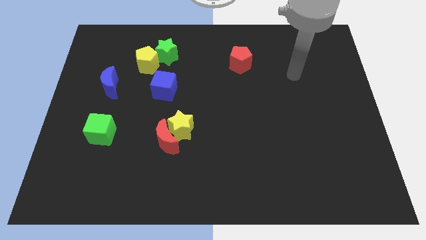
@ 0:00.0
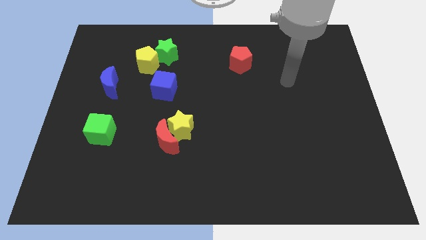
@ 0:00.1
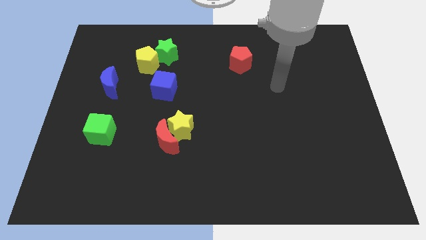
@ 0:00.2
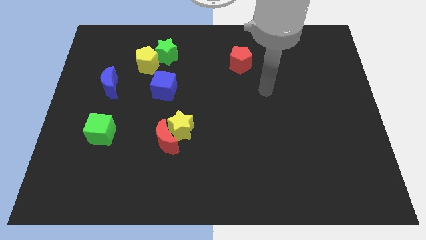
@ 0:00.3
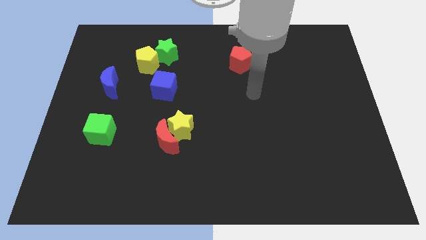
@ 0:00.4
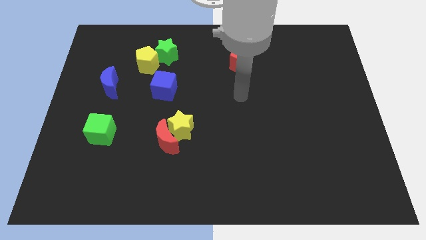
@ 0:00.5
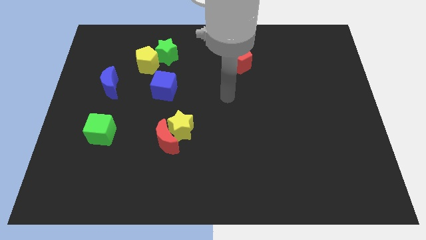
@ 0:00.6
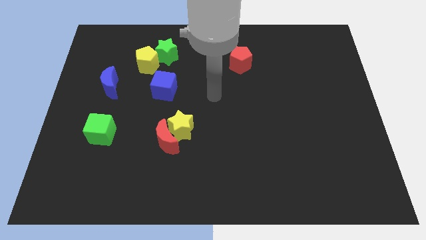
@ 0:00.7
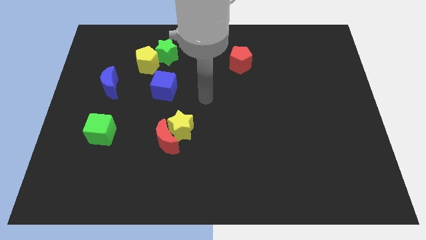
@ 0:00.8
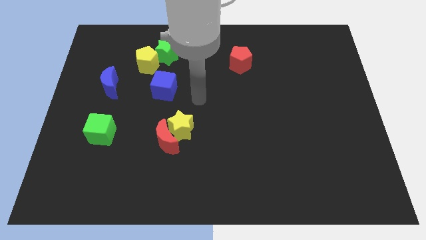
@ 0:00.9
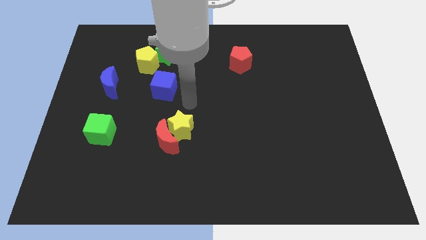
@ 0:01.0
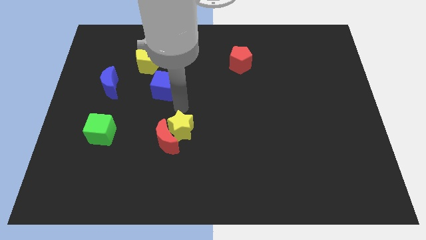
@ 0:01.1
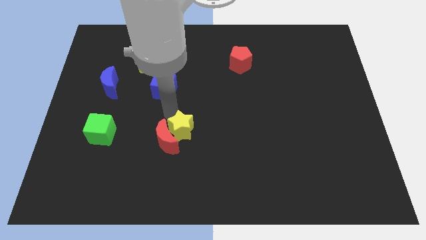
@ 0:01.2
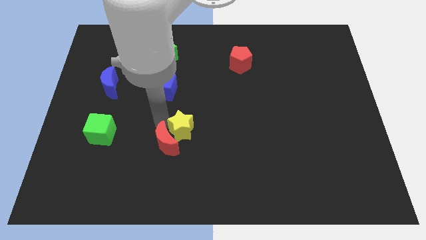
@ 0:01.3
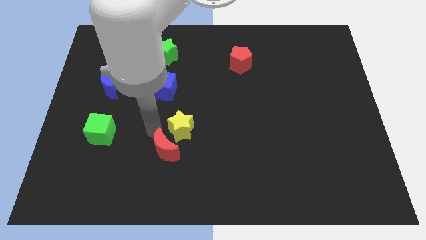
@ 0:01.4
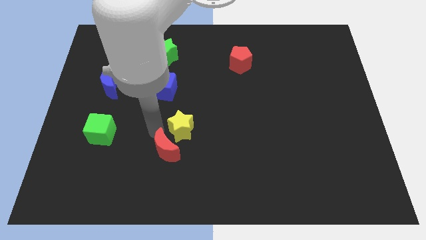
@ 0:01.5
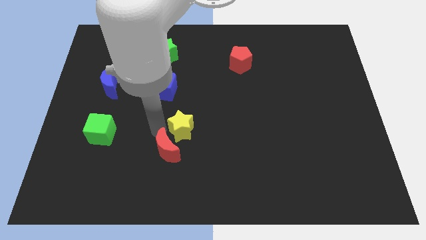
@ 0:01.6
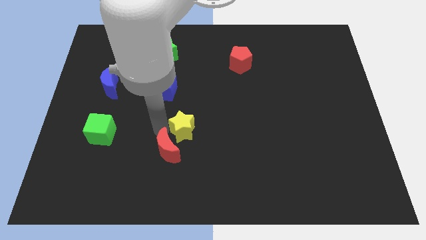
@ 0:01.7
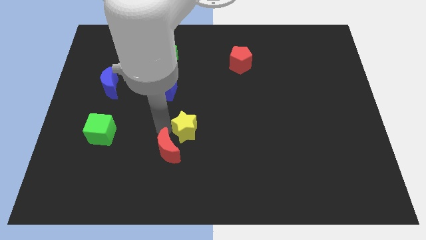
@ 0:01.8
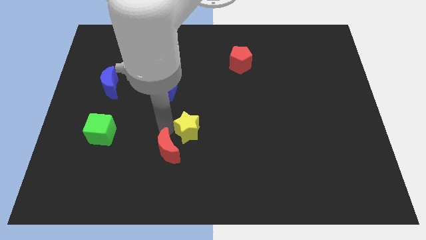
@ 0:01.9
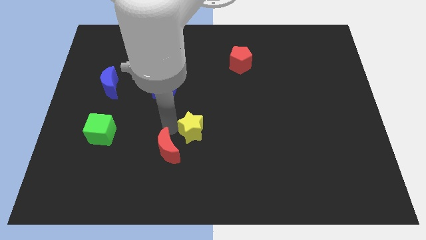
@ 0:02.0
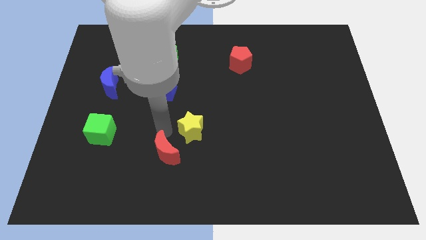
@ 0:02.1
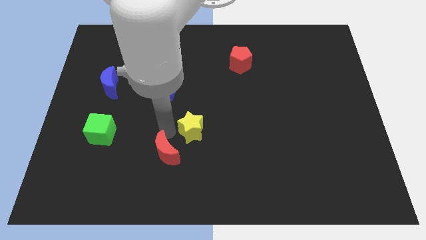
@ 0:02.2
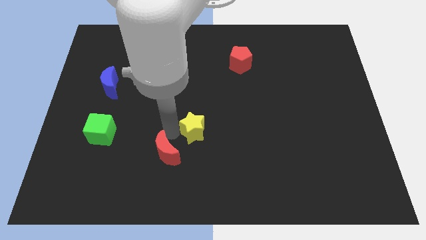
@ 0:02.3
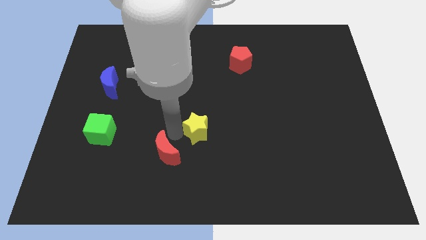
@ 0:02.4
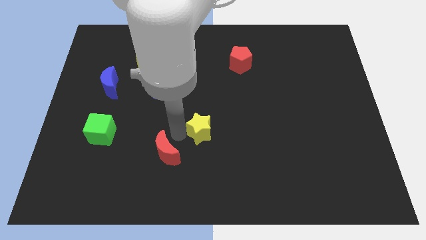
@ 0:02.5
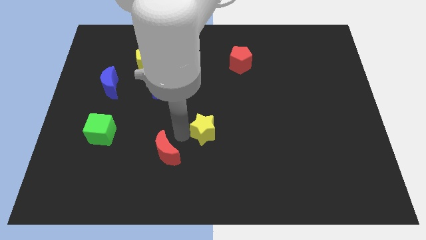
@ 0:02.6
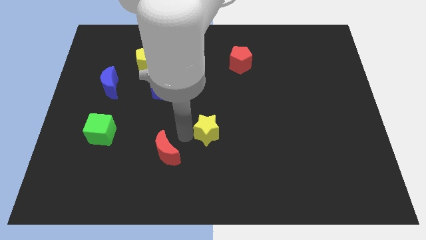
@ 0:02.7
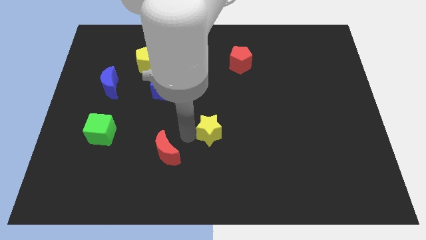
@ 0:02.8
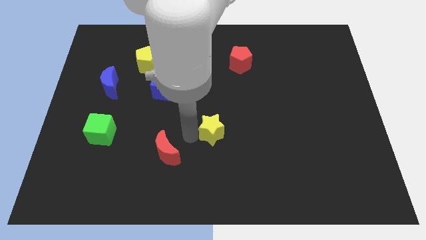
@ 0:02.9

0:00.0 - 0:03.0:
move the yellow star to the right a bit

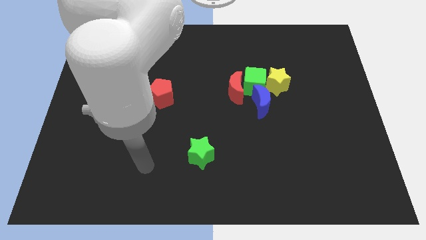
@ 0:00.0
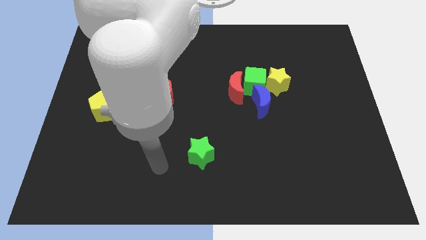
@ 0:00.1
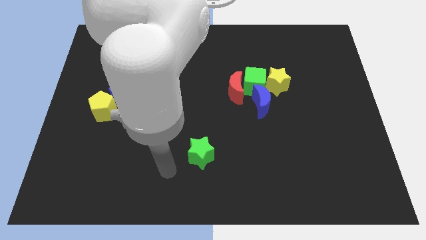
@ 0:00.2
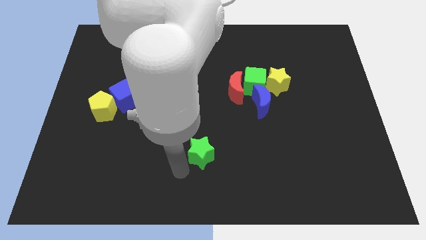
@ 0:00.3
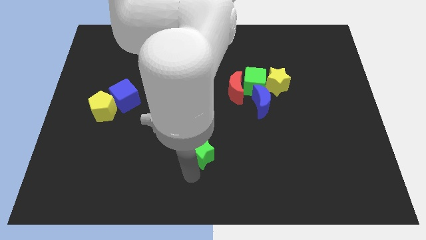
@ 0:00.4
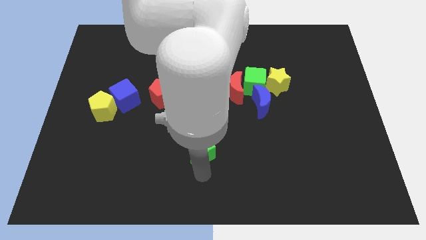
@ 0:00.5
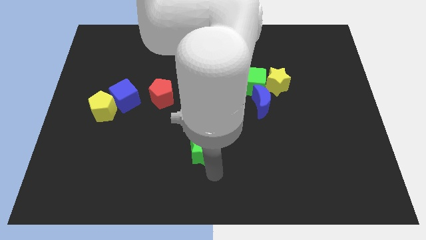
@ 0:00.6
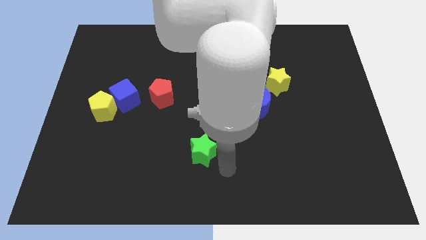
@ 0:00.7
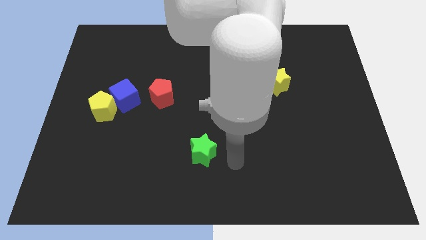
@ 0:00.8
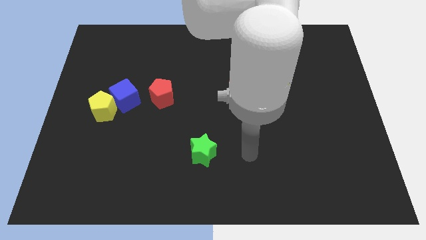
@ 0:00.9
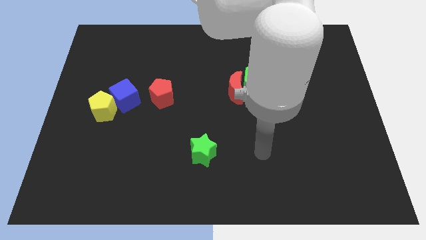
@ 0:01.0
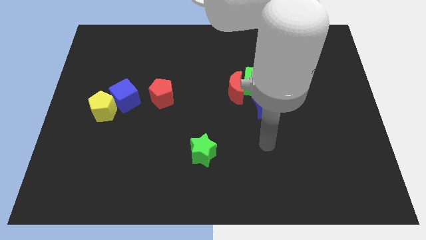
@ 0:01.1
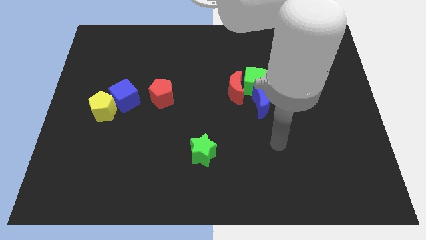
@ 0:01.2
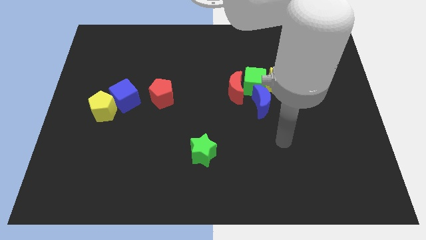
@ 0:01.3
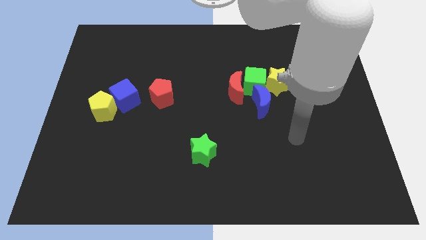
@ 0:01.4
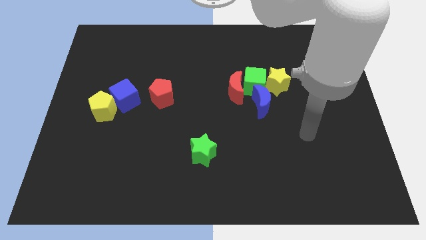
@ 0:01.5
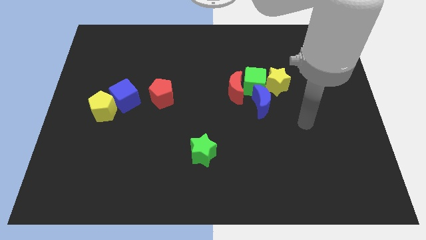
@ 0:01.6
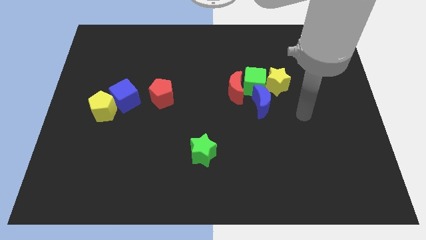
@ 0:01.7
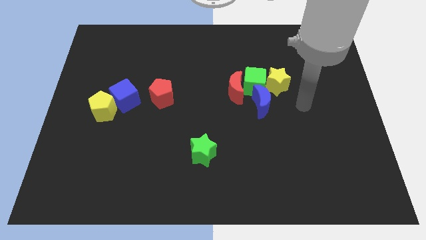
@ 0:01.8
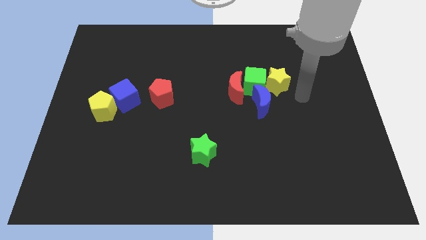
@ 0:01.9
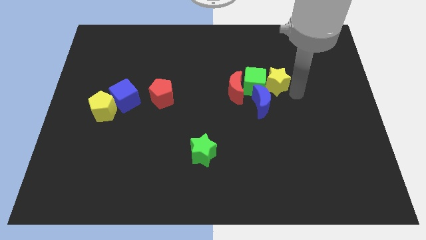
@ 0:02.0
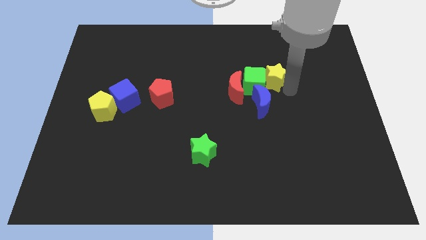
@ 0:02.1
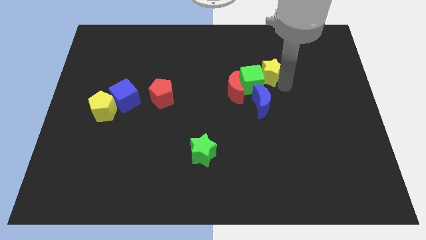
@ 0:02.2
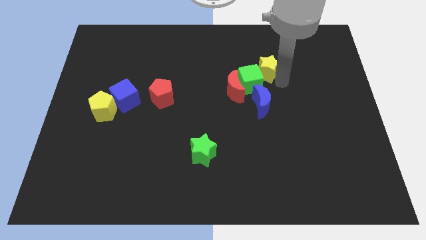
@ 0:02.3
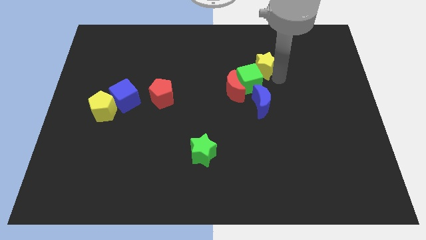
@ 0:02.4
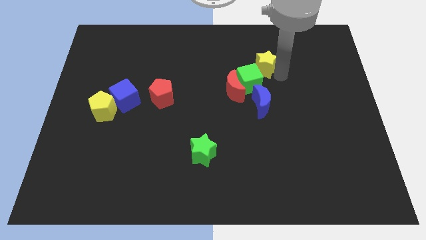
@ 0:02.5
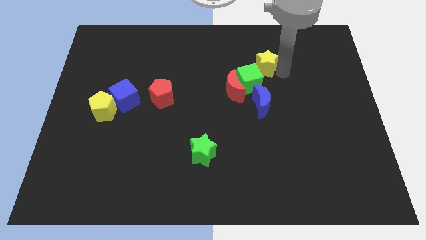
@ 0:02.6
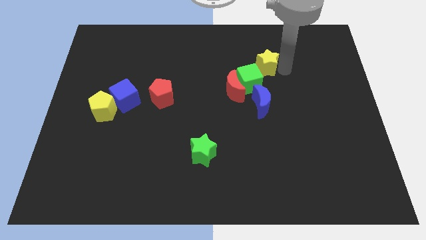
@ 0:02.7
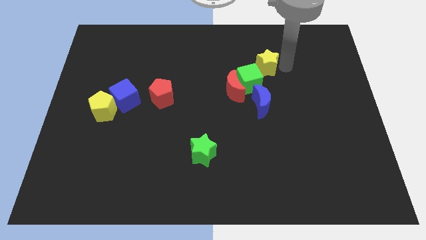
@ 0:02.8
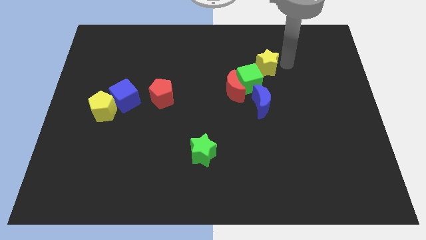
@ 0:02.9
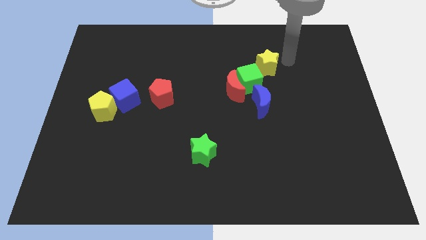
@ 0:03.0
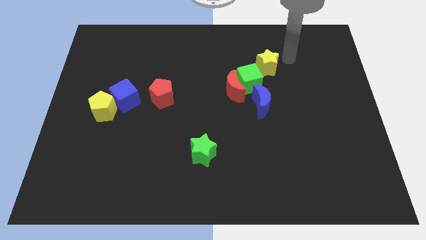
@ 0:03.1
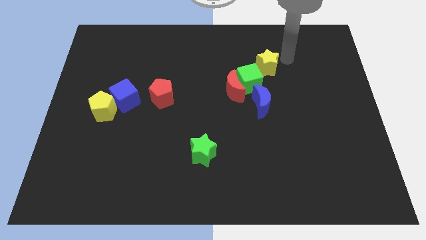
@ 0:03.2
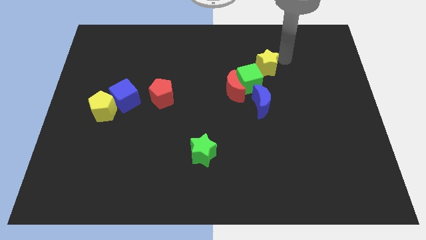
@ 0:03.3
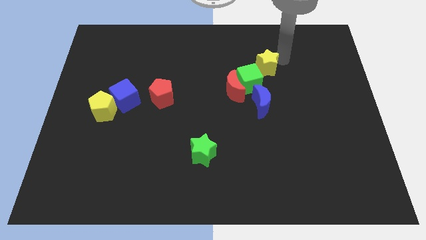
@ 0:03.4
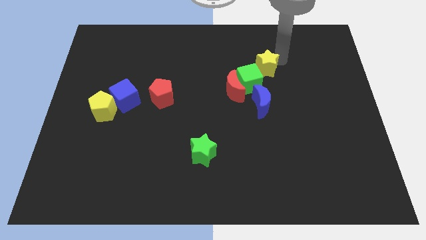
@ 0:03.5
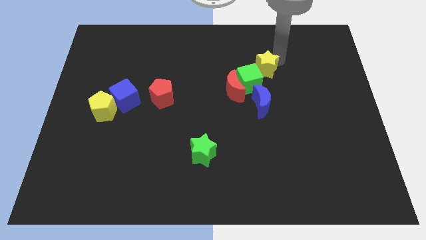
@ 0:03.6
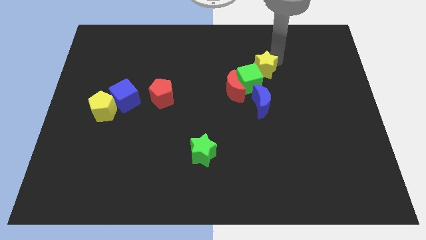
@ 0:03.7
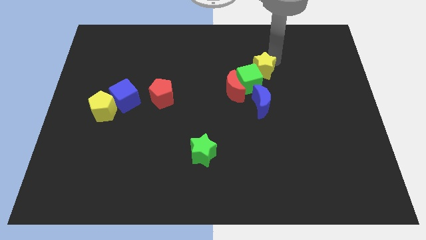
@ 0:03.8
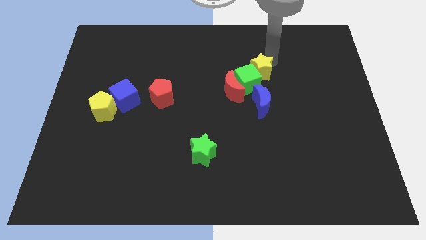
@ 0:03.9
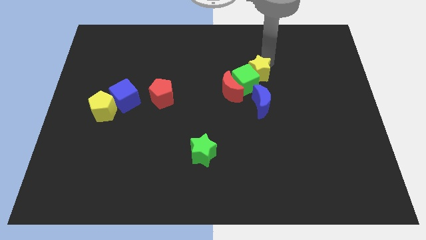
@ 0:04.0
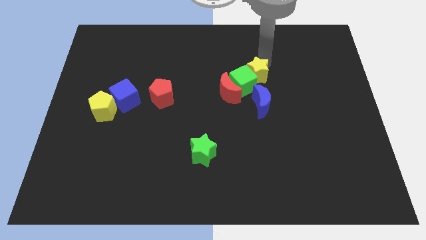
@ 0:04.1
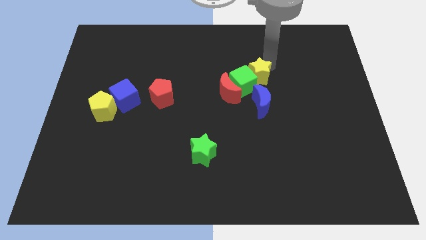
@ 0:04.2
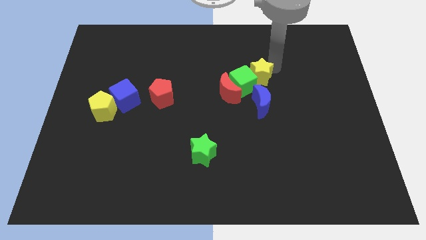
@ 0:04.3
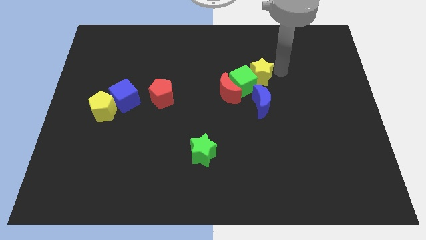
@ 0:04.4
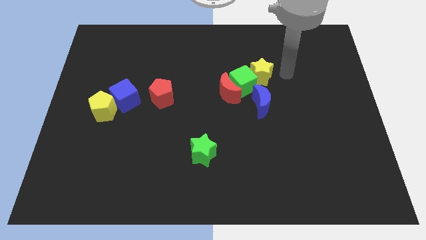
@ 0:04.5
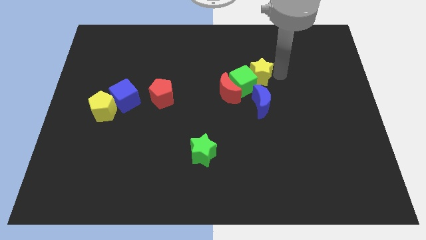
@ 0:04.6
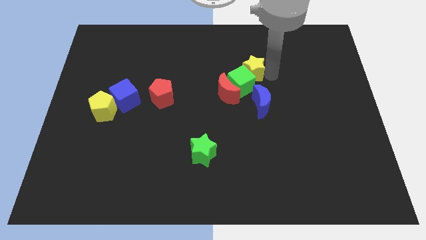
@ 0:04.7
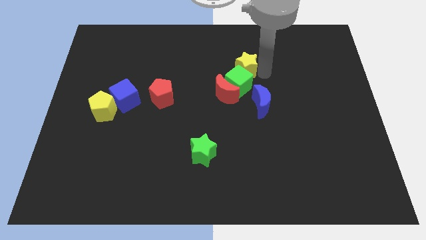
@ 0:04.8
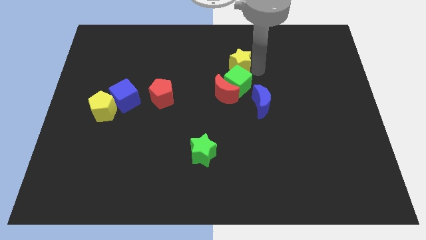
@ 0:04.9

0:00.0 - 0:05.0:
push the yellow star a bit to the left
